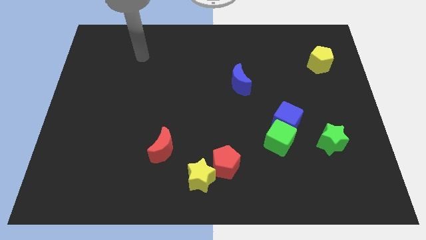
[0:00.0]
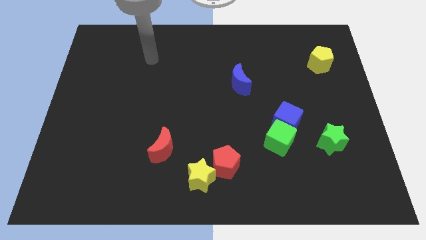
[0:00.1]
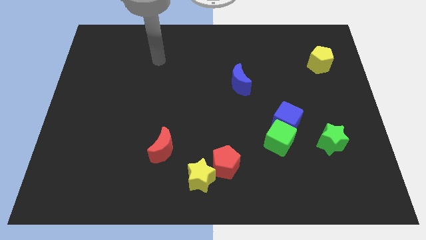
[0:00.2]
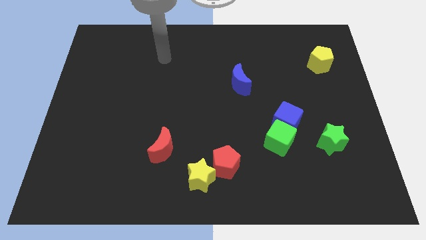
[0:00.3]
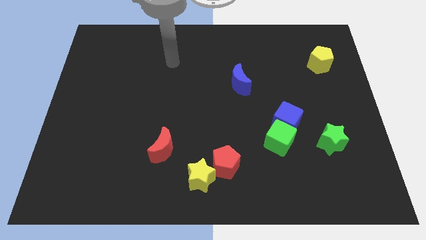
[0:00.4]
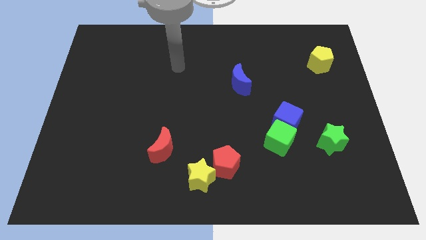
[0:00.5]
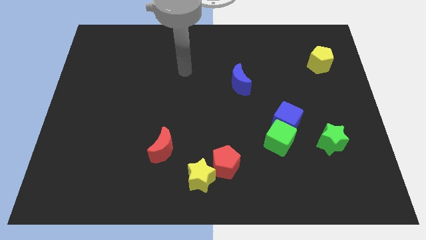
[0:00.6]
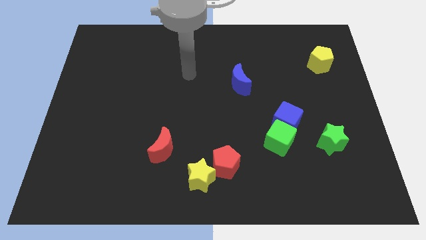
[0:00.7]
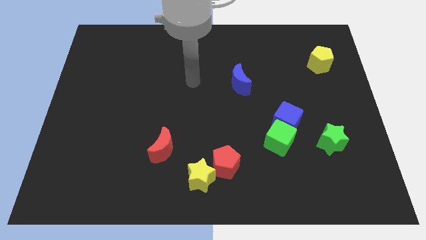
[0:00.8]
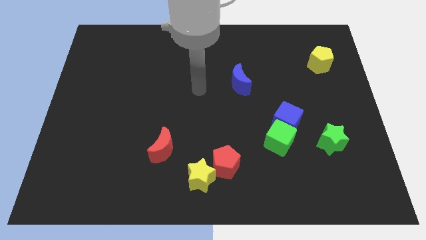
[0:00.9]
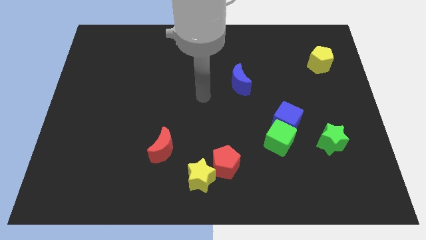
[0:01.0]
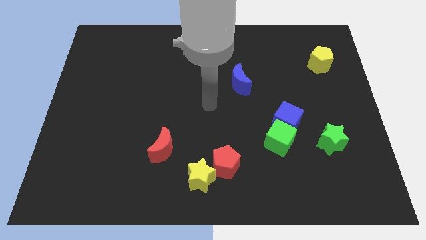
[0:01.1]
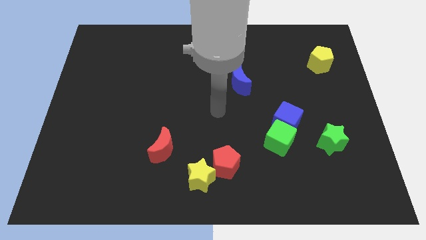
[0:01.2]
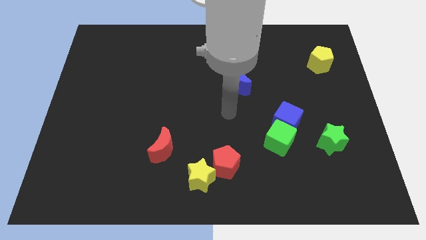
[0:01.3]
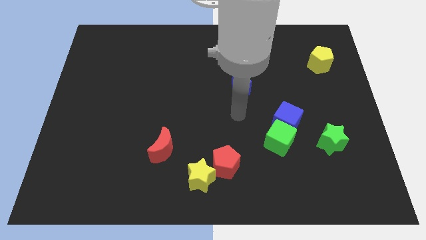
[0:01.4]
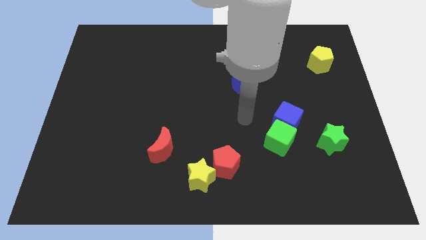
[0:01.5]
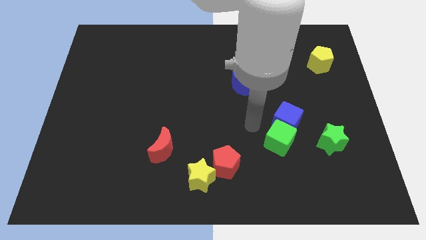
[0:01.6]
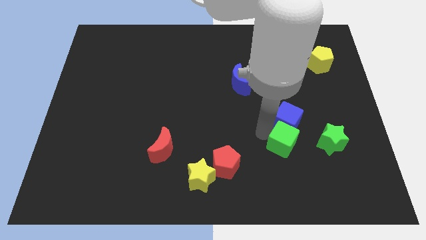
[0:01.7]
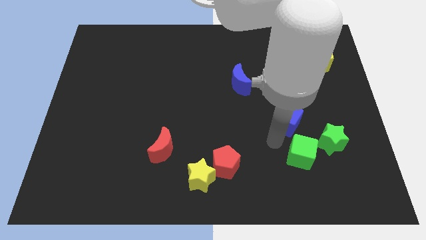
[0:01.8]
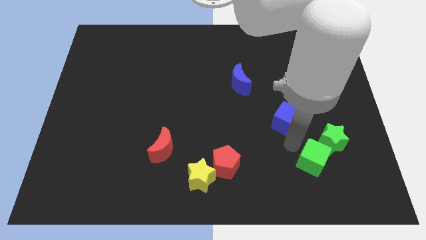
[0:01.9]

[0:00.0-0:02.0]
move the blue cube away from the green cube

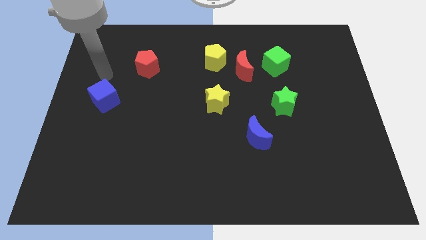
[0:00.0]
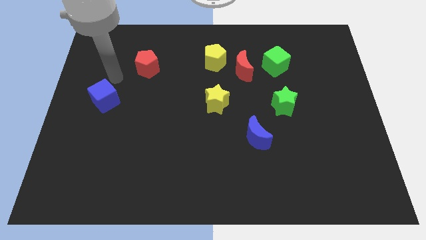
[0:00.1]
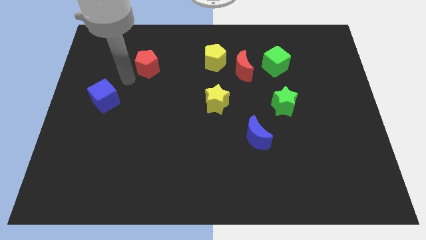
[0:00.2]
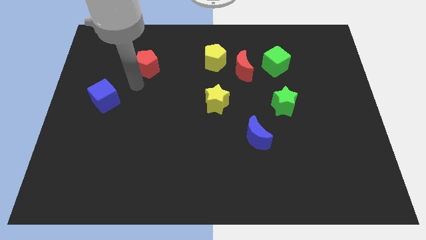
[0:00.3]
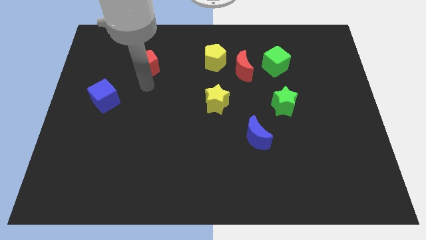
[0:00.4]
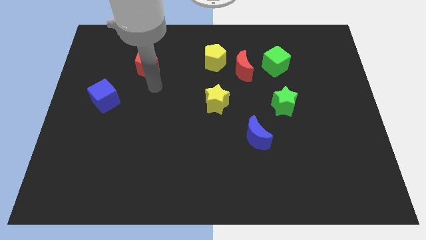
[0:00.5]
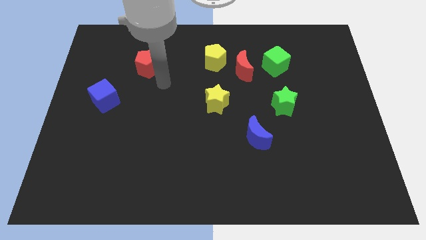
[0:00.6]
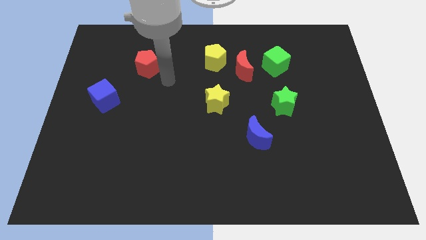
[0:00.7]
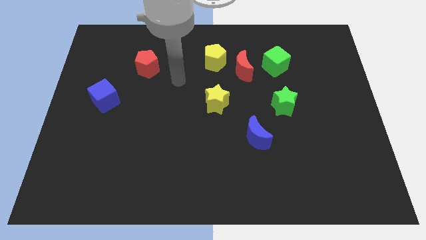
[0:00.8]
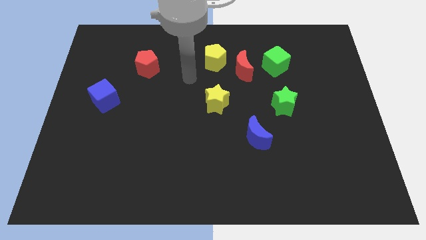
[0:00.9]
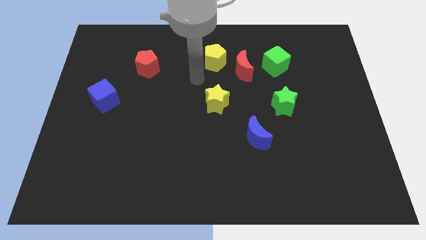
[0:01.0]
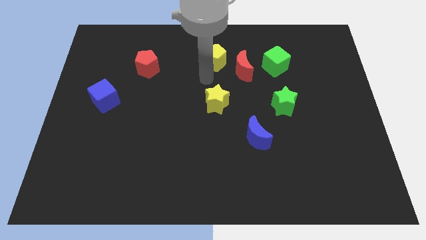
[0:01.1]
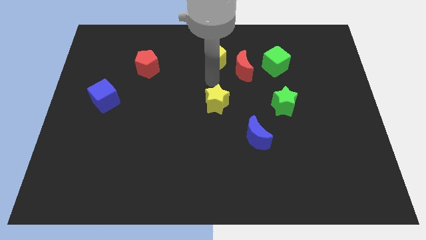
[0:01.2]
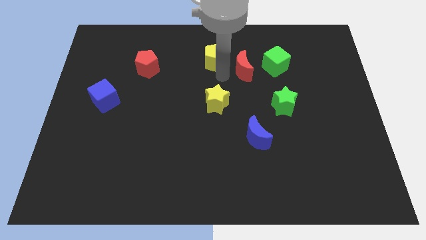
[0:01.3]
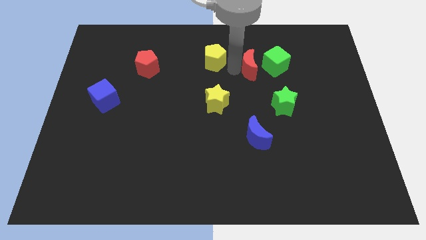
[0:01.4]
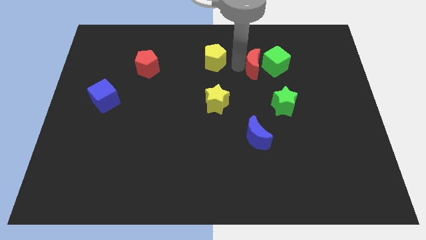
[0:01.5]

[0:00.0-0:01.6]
separate the yellow pentagon from the red moon

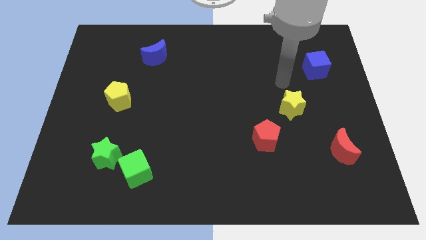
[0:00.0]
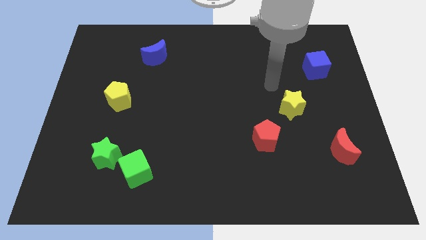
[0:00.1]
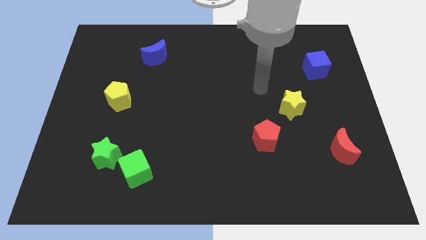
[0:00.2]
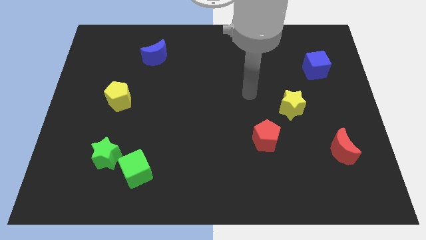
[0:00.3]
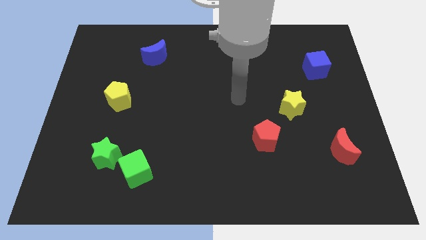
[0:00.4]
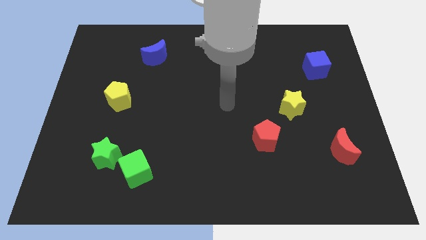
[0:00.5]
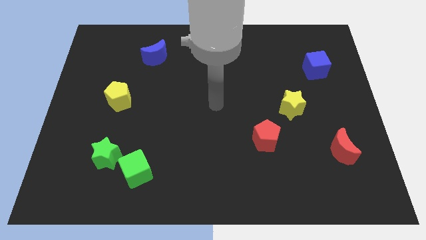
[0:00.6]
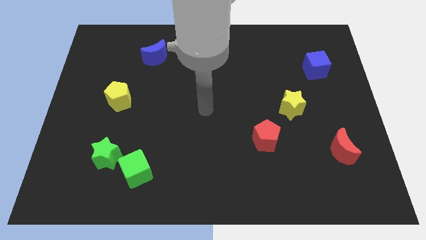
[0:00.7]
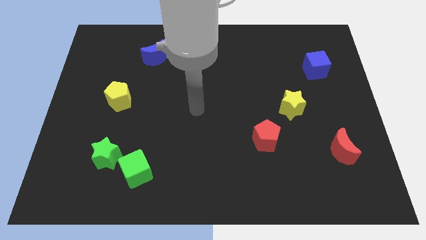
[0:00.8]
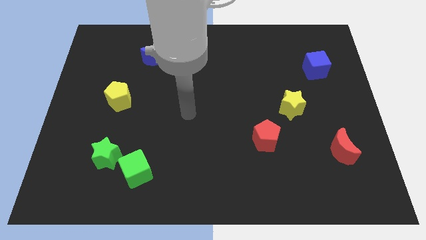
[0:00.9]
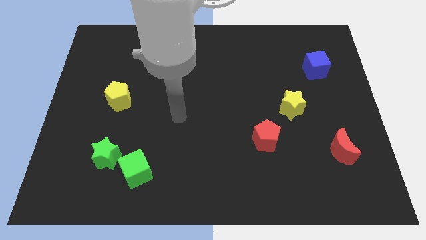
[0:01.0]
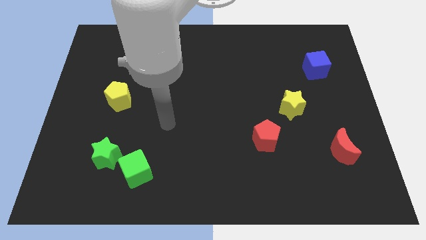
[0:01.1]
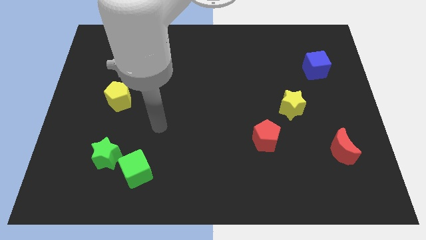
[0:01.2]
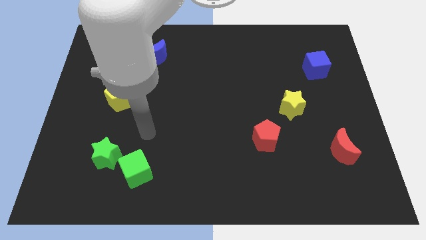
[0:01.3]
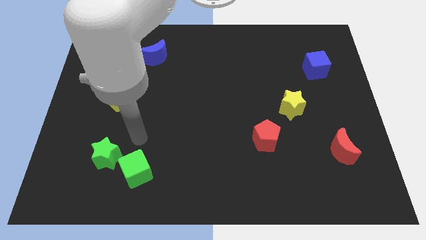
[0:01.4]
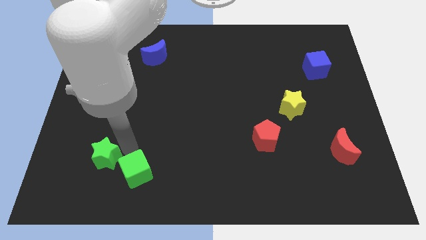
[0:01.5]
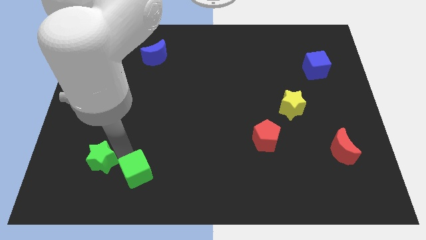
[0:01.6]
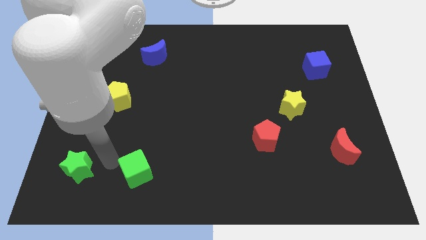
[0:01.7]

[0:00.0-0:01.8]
pull the green cube apart from the green star

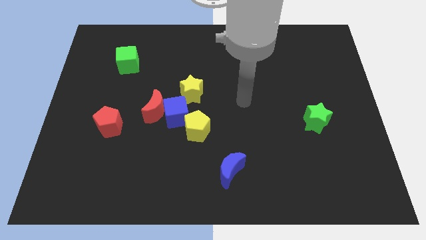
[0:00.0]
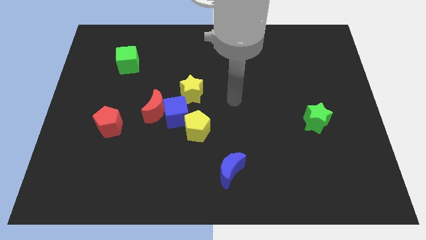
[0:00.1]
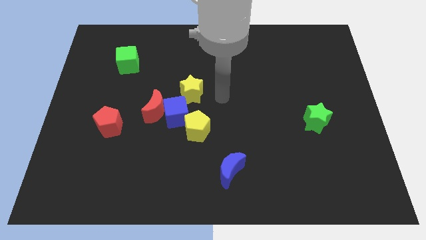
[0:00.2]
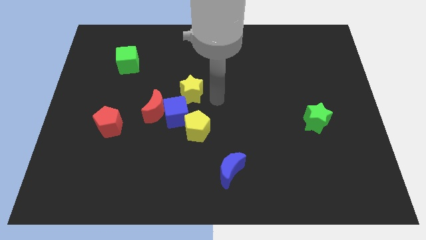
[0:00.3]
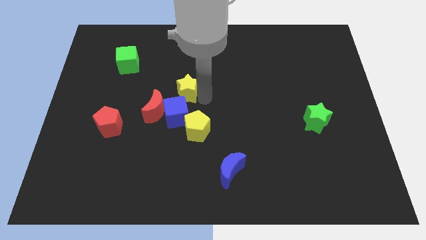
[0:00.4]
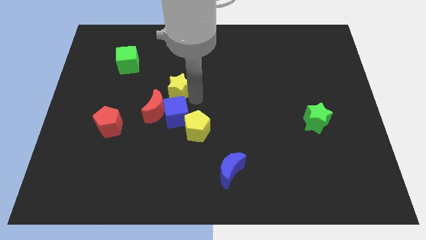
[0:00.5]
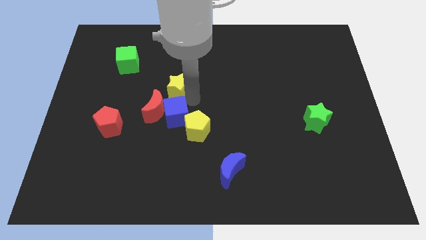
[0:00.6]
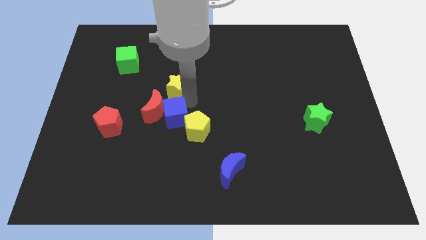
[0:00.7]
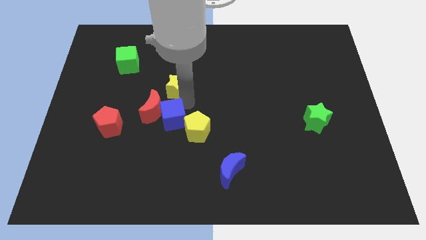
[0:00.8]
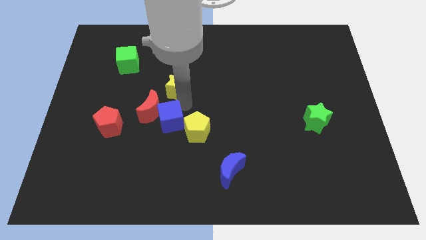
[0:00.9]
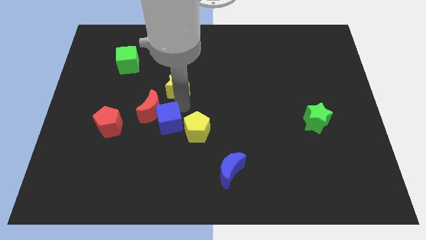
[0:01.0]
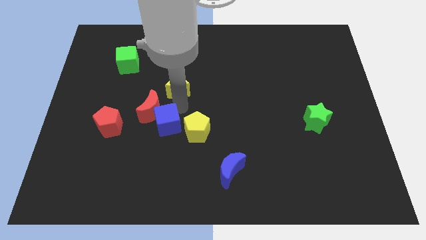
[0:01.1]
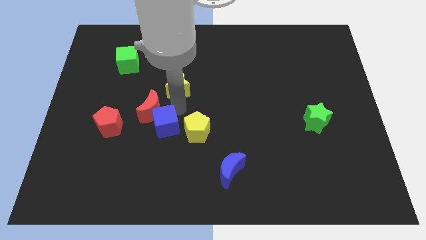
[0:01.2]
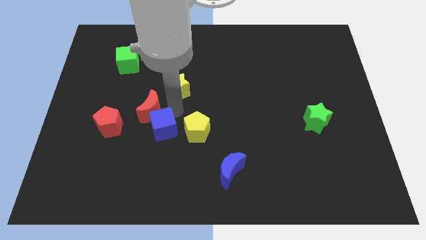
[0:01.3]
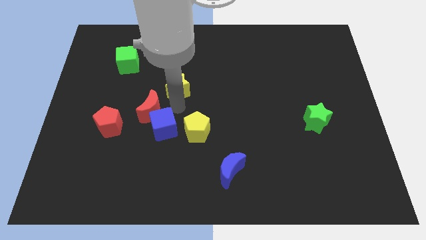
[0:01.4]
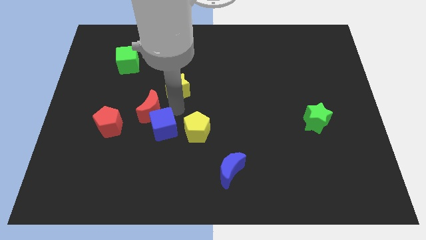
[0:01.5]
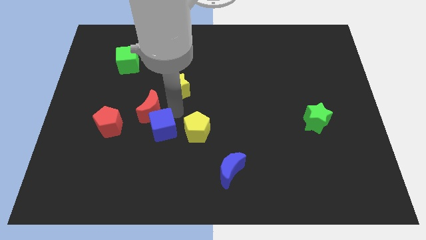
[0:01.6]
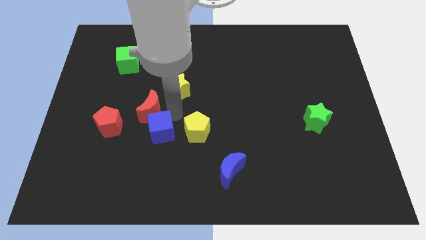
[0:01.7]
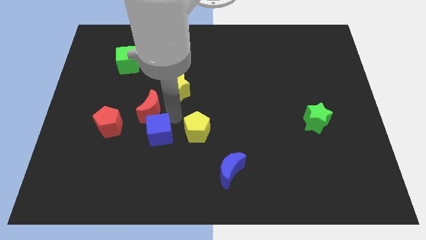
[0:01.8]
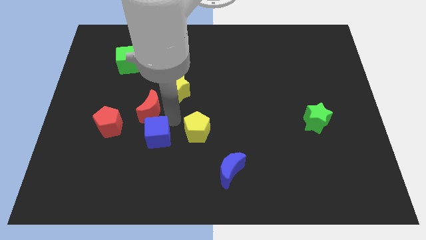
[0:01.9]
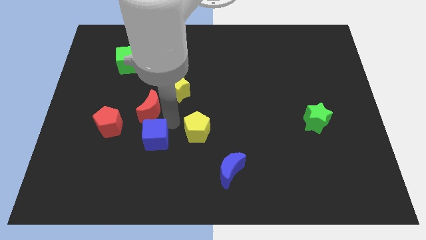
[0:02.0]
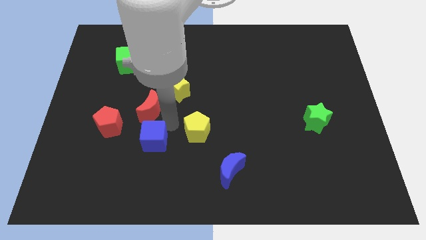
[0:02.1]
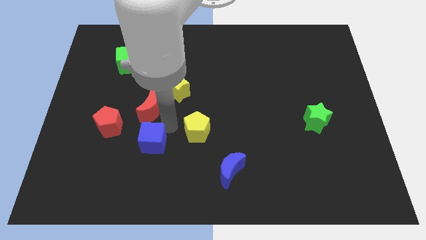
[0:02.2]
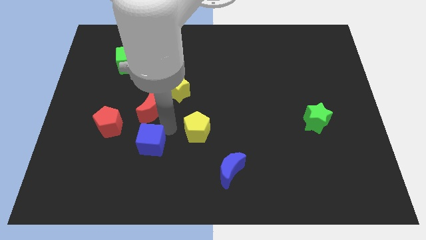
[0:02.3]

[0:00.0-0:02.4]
separate the blue cube from the group

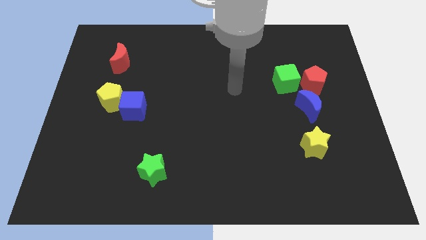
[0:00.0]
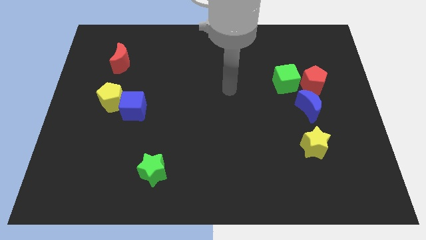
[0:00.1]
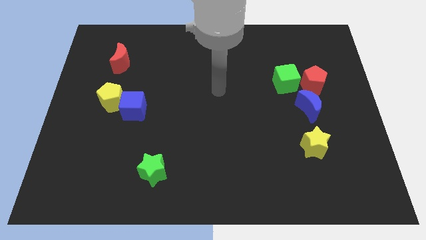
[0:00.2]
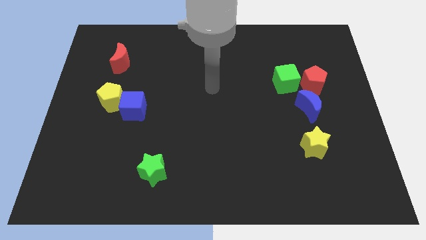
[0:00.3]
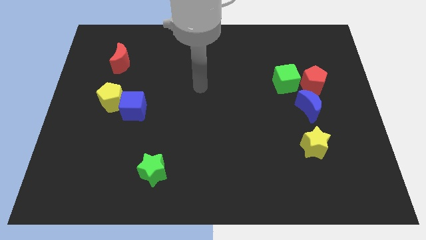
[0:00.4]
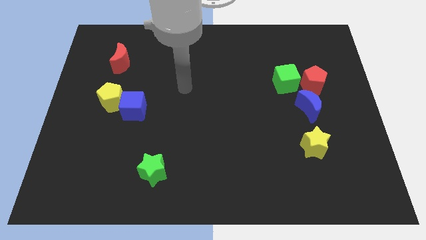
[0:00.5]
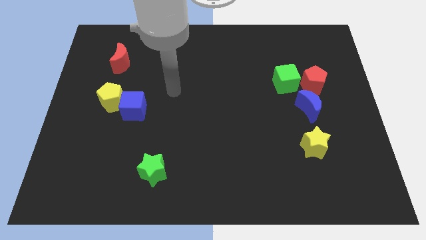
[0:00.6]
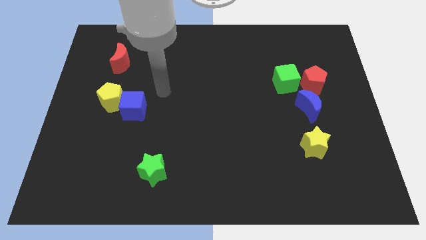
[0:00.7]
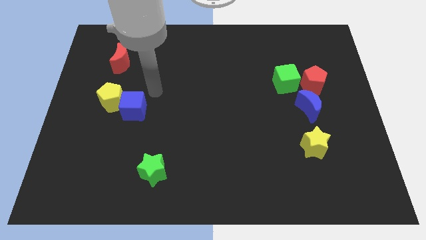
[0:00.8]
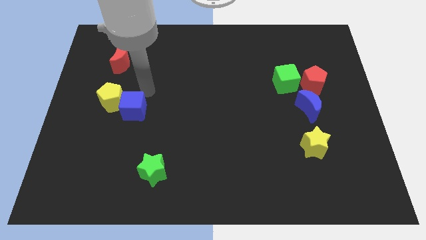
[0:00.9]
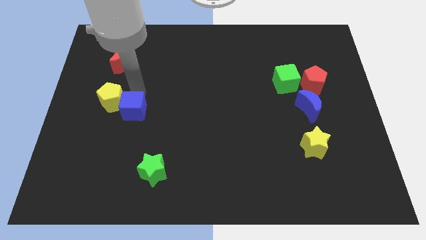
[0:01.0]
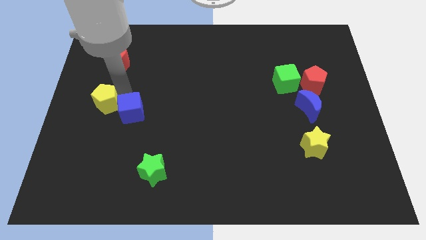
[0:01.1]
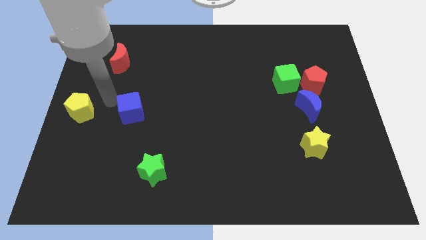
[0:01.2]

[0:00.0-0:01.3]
move the blue cube away from the yellow pentagon
